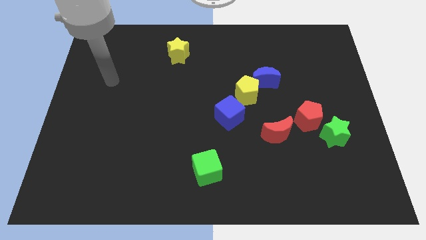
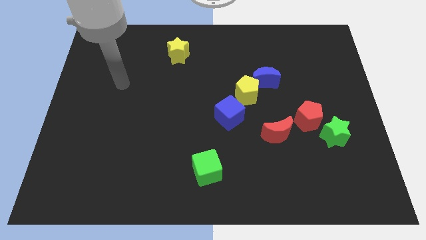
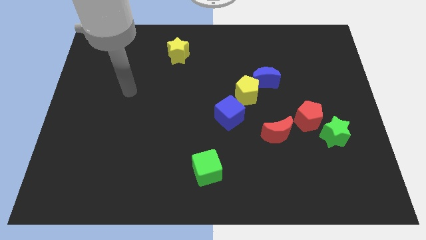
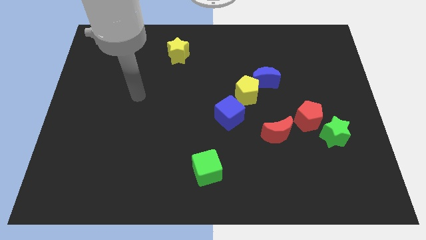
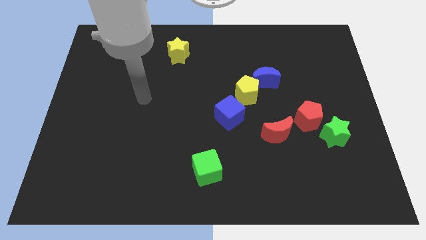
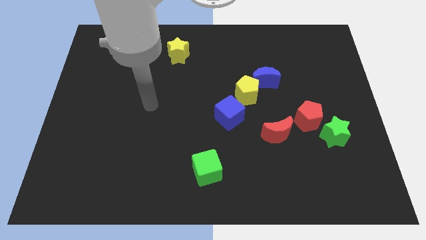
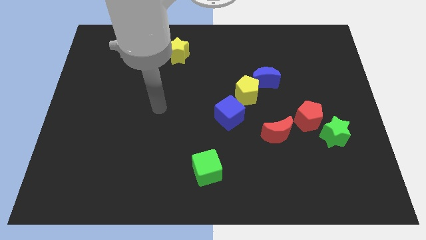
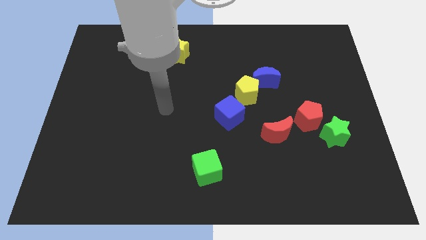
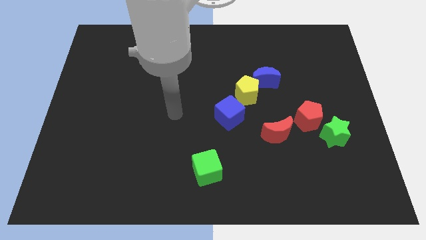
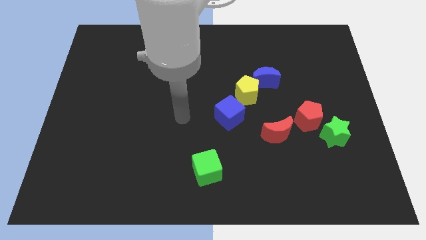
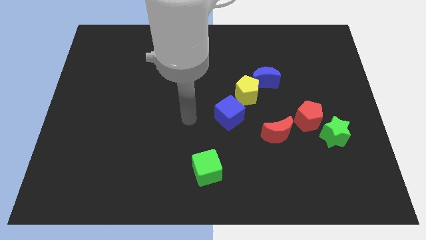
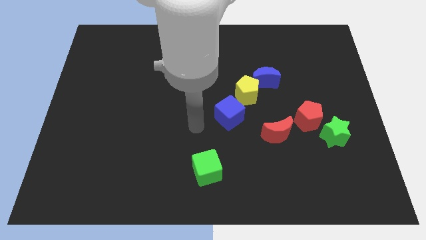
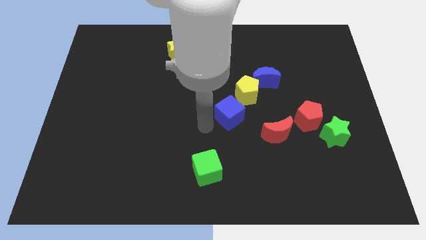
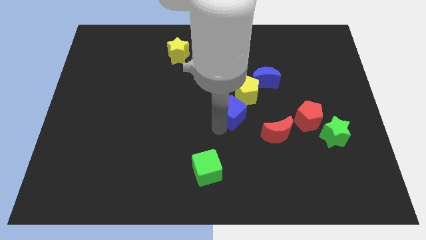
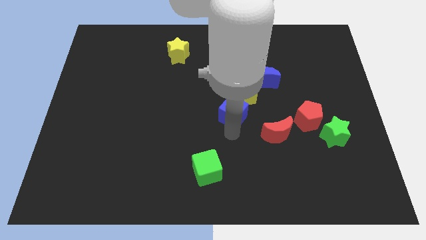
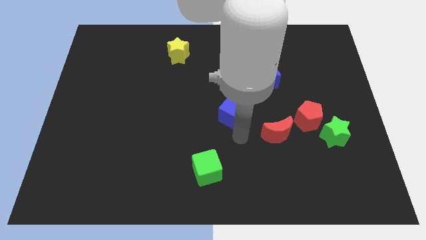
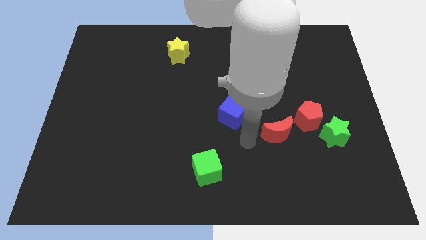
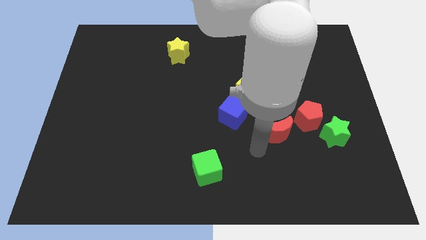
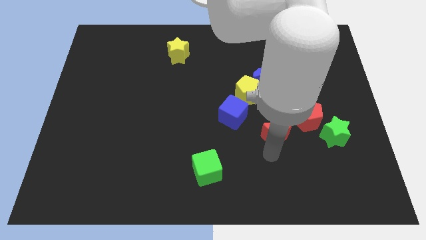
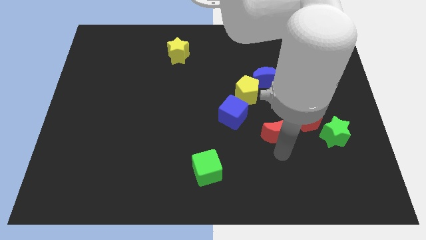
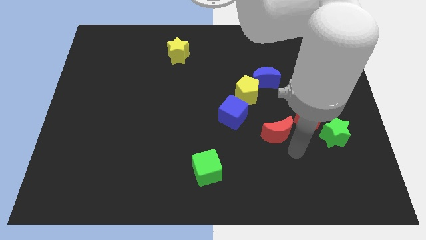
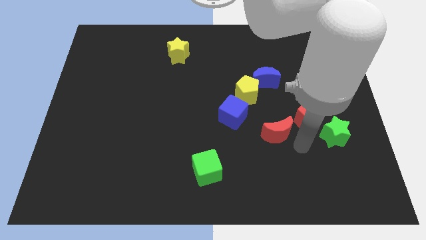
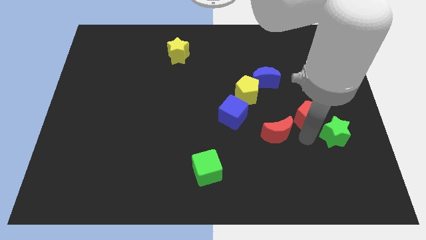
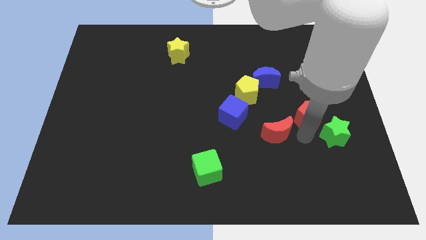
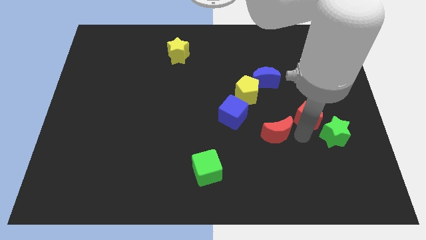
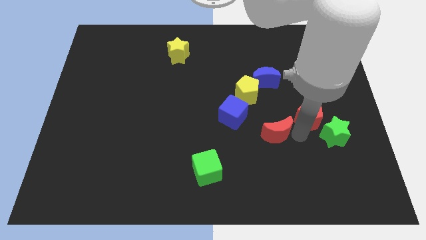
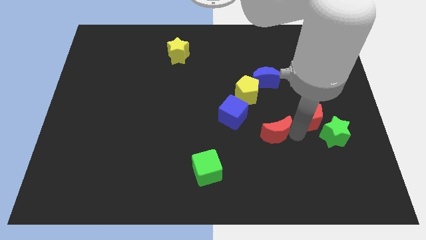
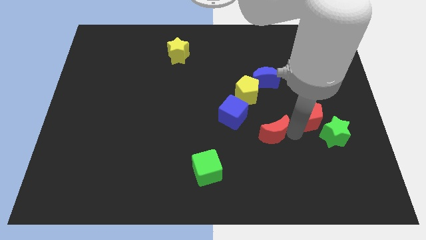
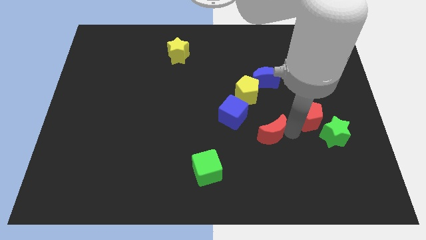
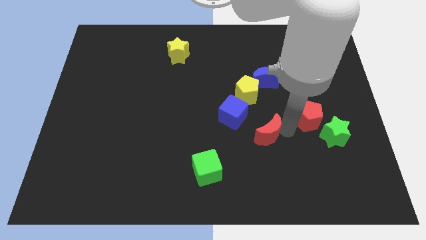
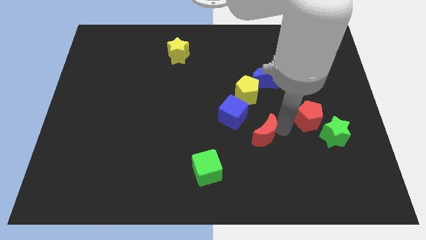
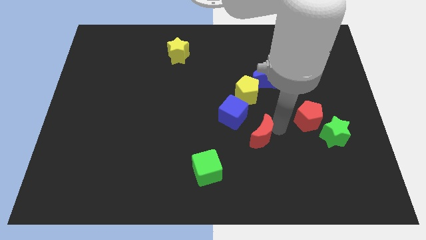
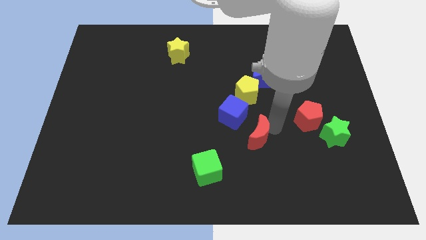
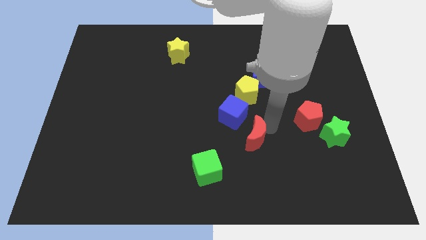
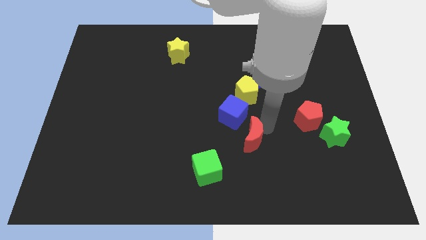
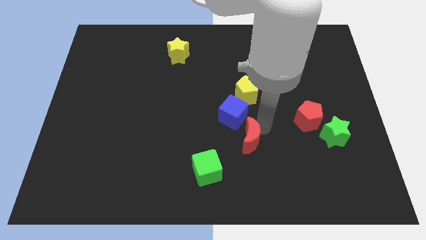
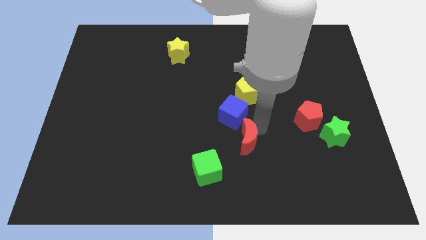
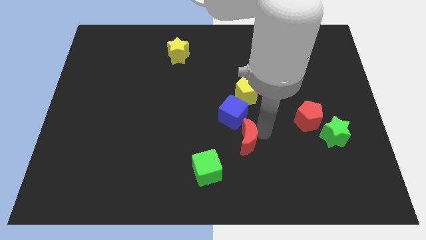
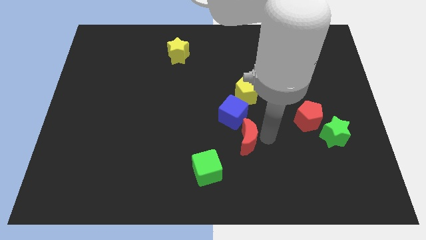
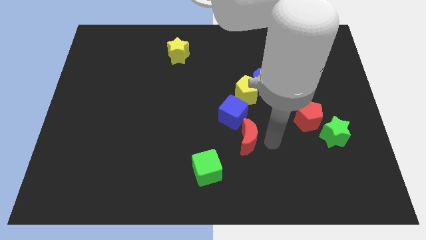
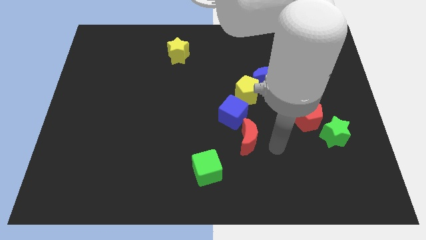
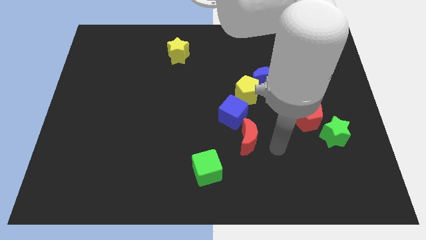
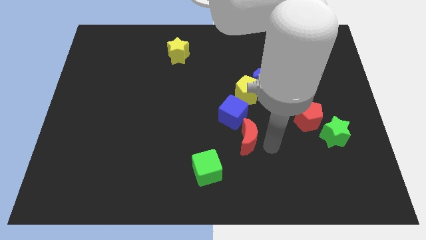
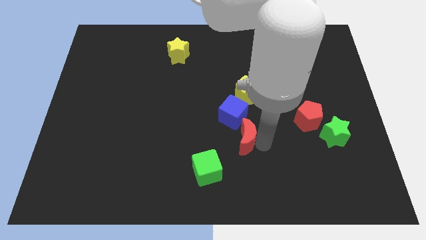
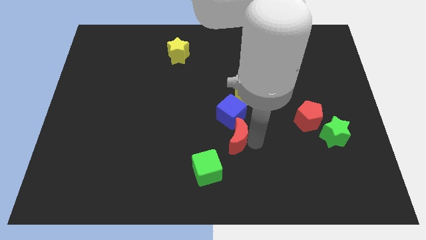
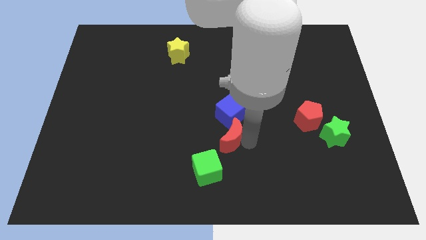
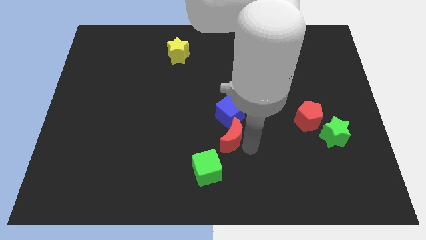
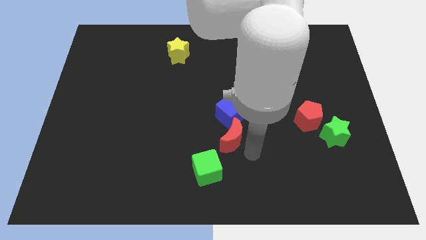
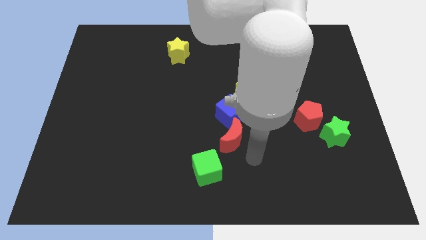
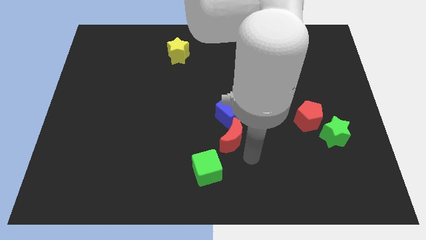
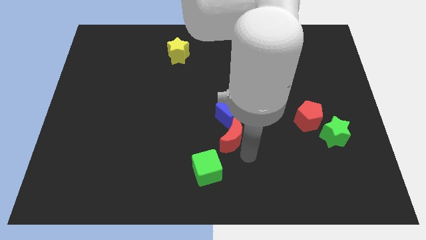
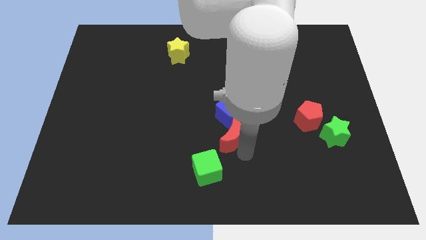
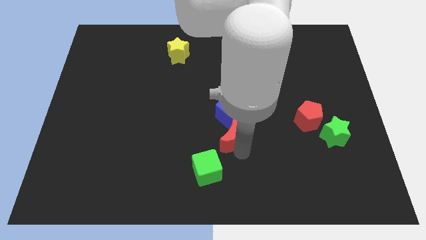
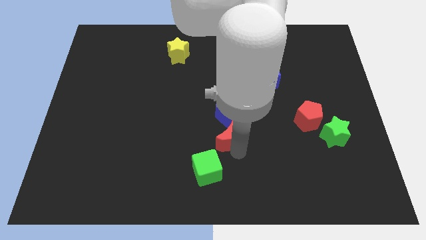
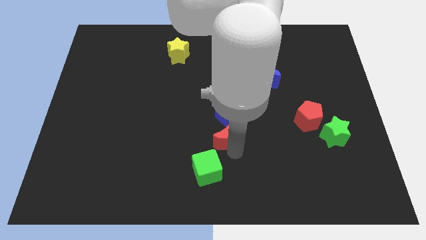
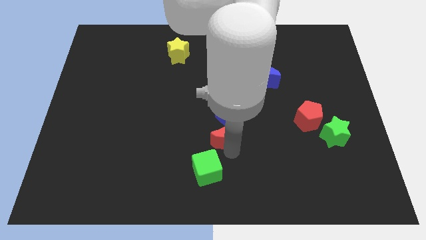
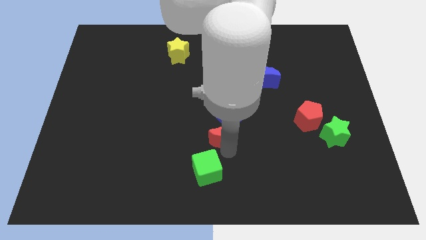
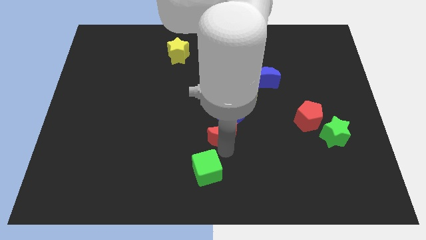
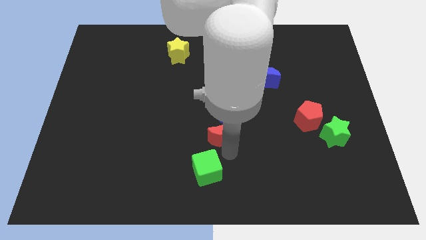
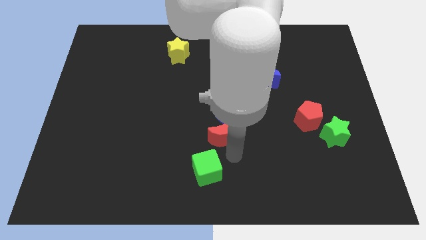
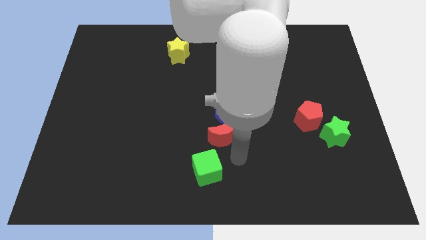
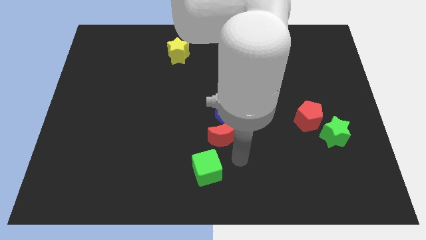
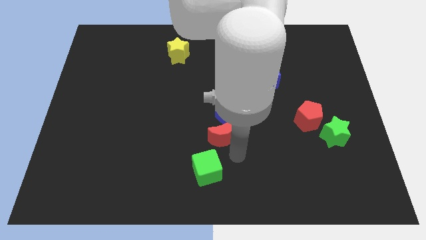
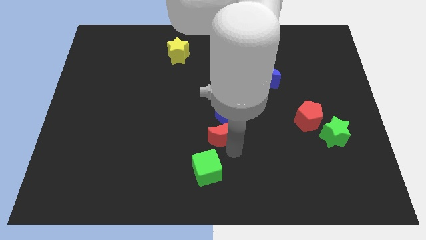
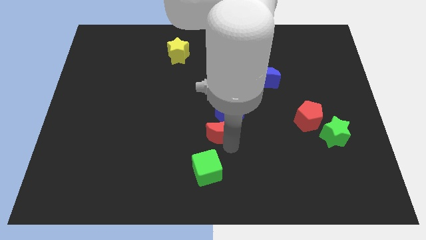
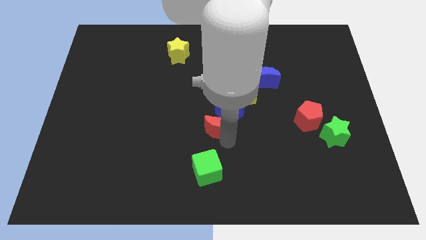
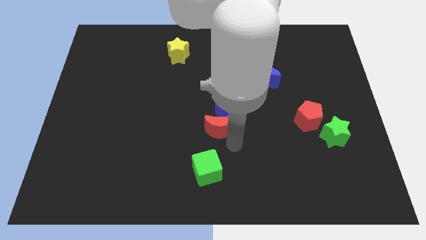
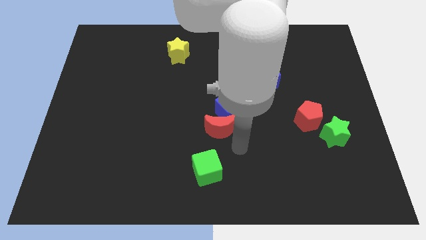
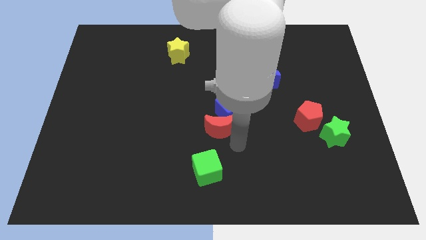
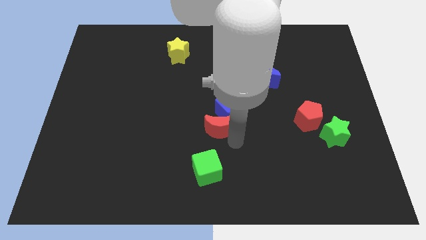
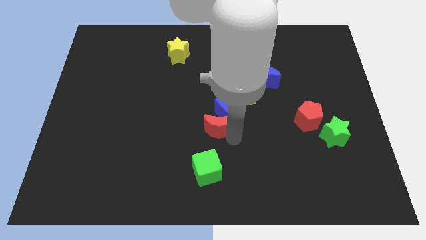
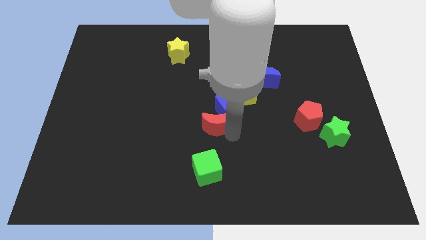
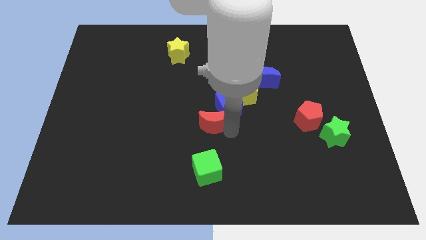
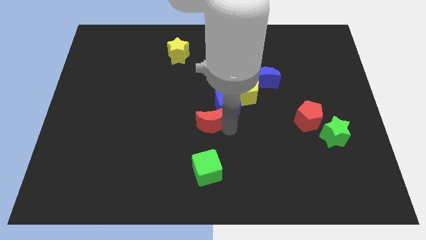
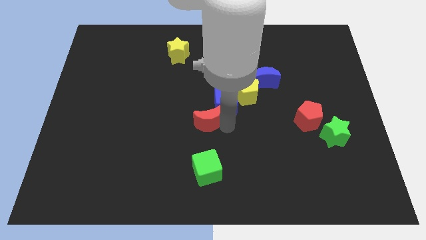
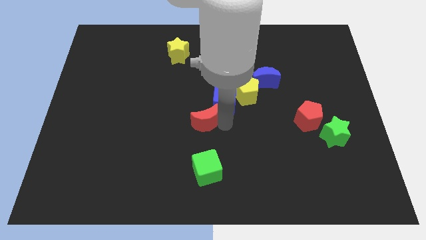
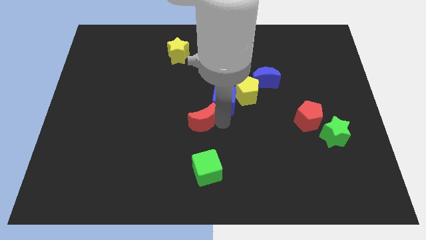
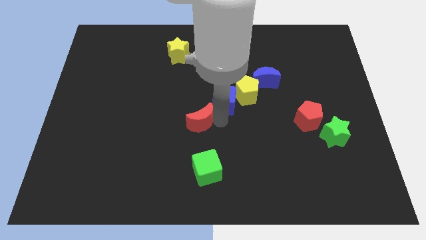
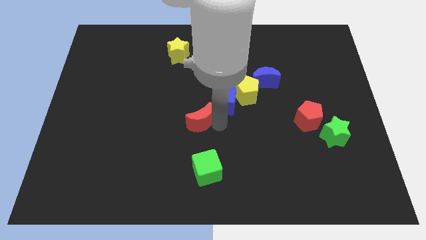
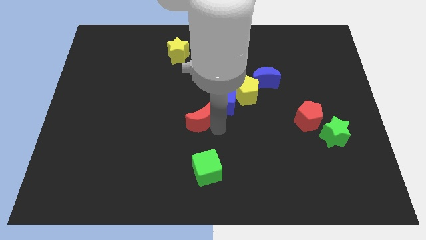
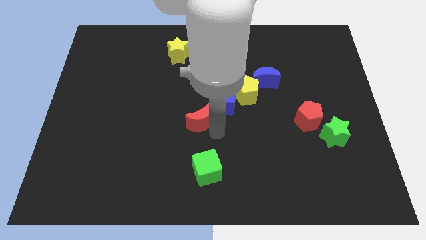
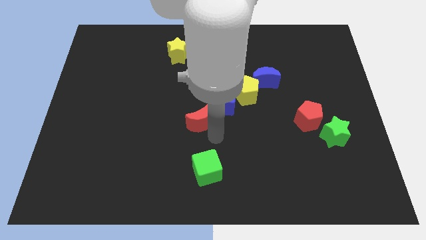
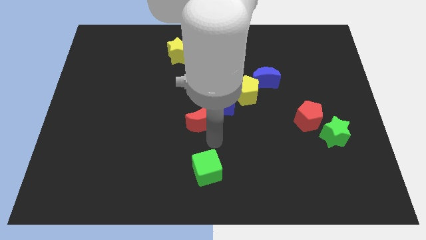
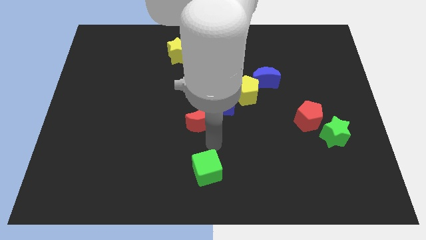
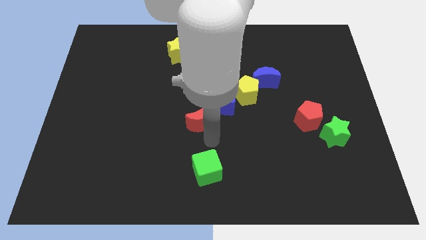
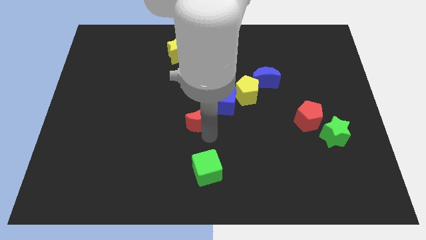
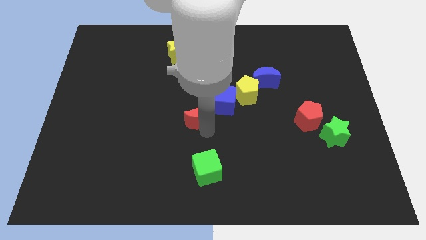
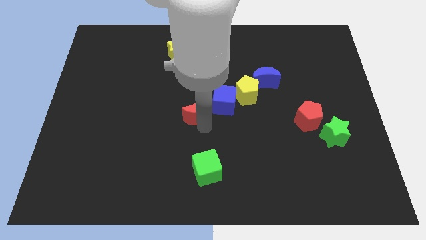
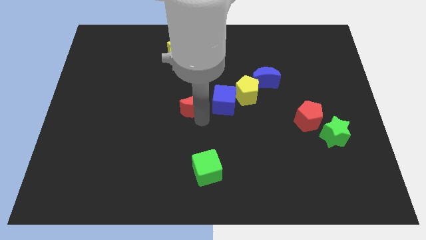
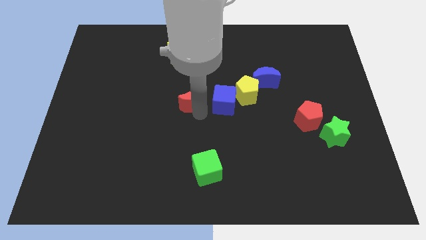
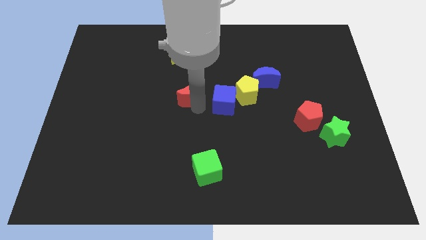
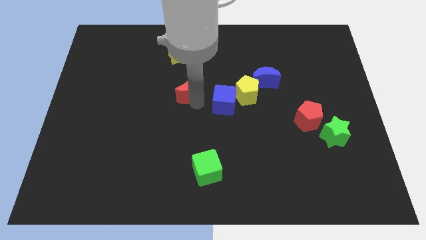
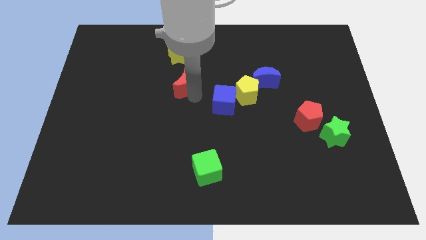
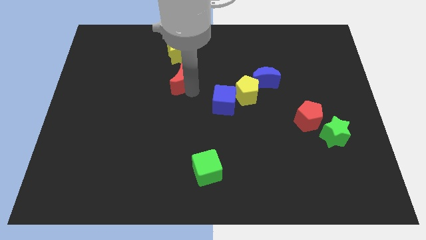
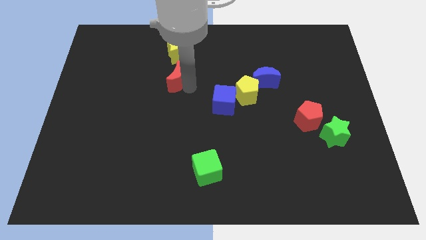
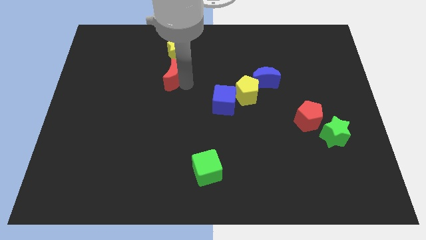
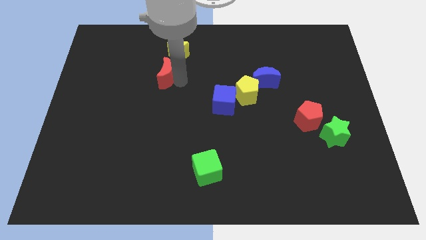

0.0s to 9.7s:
push the red moon to the bottom left side of the yellow star
